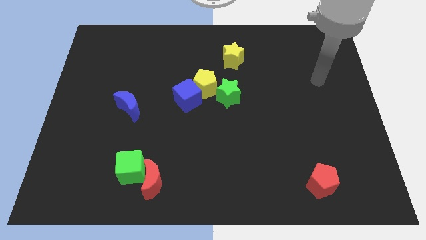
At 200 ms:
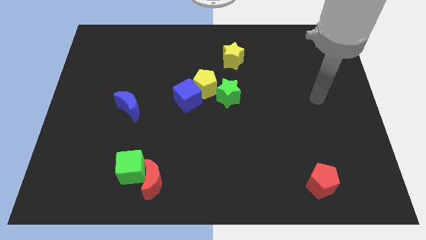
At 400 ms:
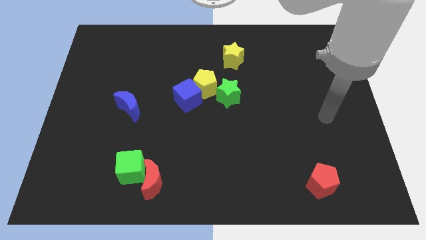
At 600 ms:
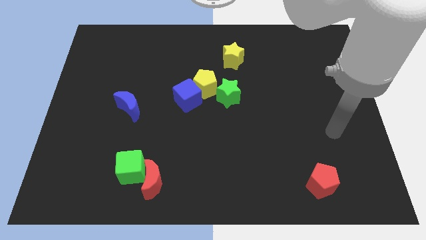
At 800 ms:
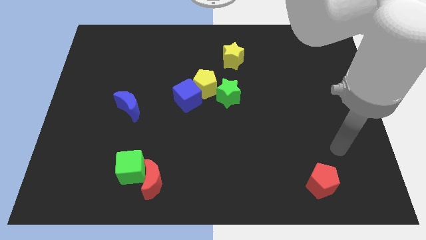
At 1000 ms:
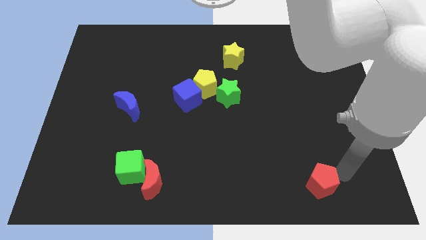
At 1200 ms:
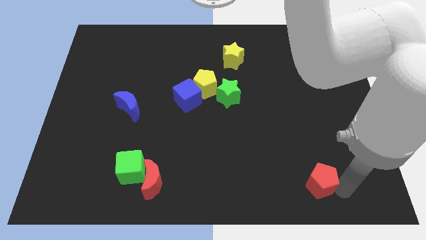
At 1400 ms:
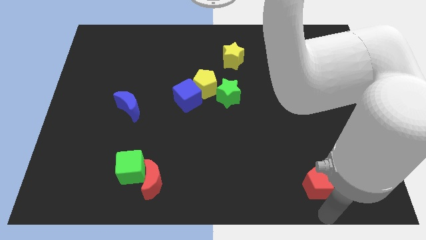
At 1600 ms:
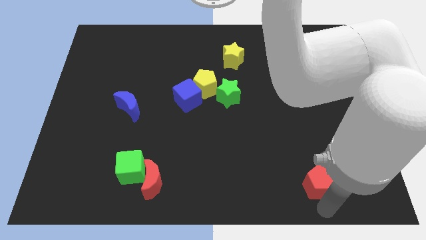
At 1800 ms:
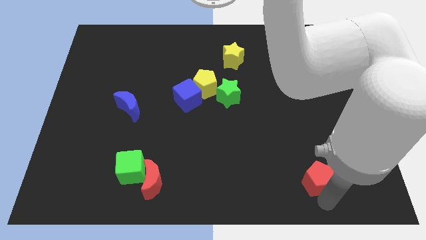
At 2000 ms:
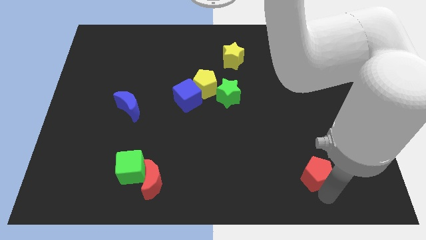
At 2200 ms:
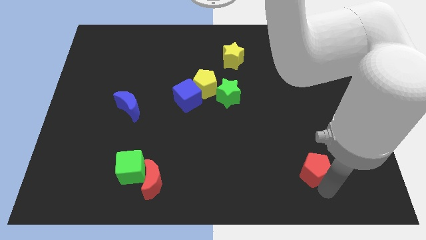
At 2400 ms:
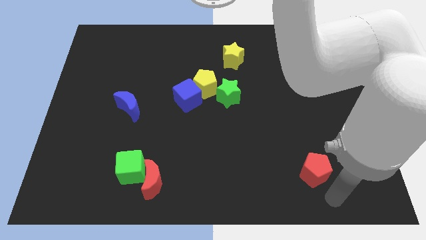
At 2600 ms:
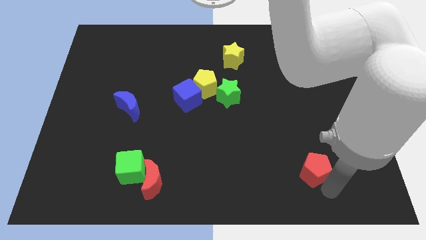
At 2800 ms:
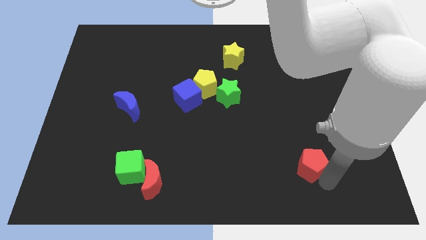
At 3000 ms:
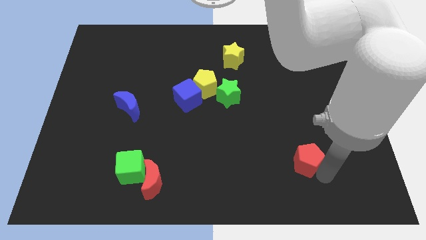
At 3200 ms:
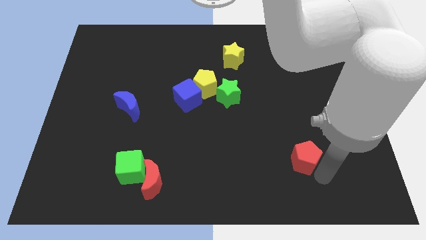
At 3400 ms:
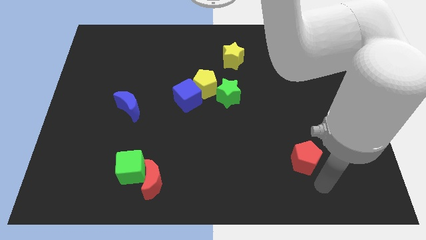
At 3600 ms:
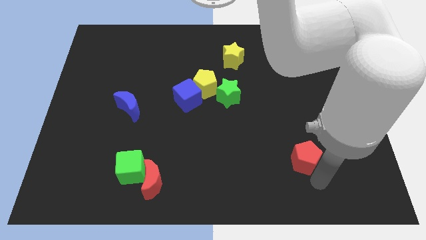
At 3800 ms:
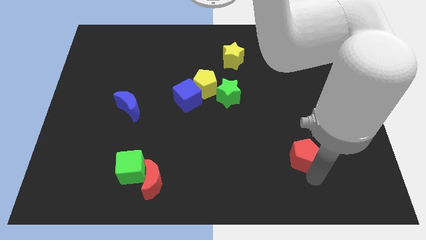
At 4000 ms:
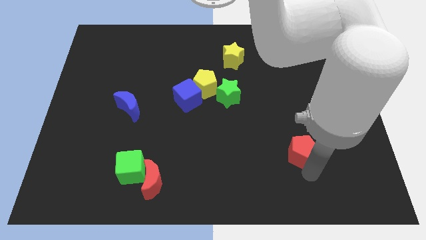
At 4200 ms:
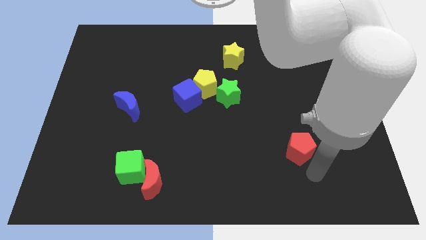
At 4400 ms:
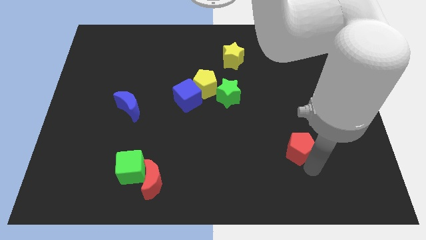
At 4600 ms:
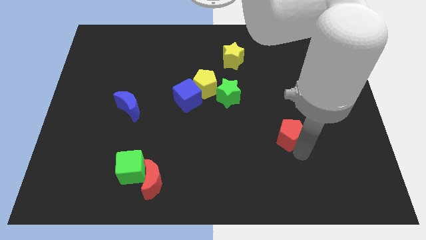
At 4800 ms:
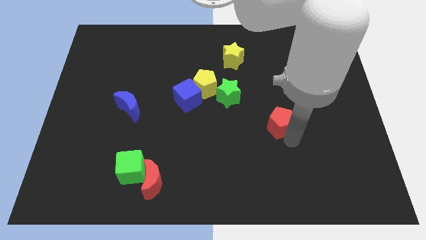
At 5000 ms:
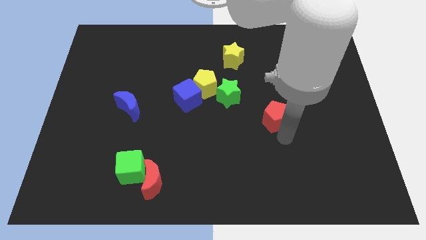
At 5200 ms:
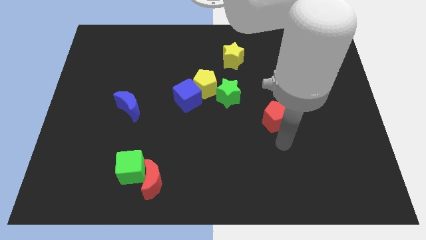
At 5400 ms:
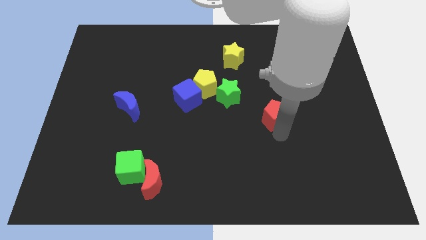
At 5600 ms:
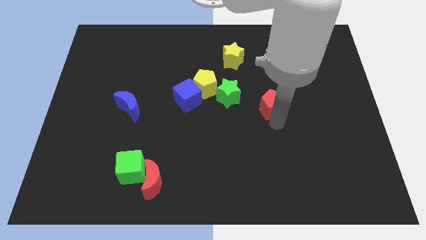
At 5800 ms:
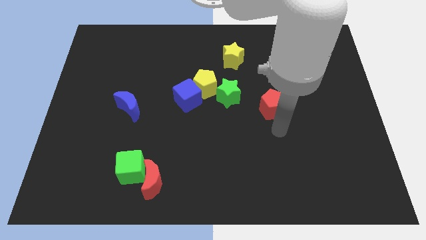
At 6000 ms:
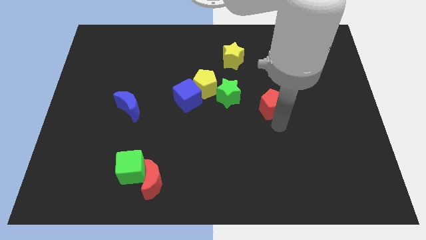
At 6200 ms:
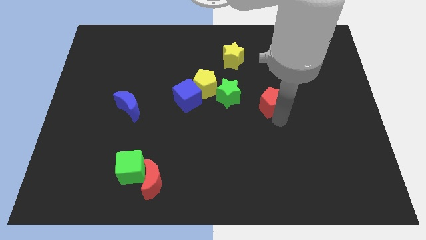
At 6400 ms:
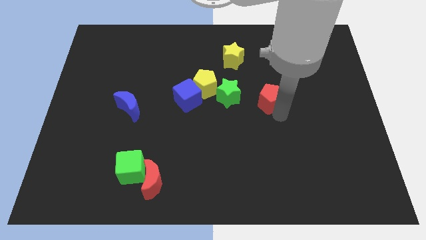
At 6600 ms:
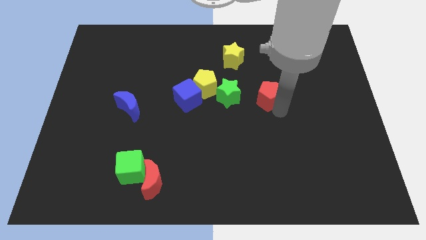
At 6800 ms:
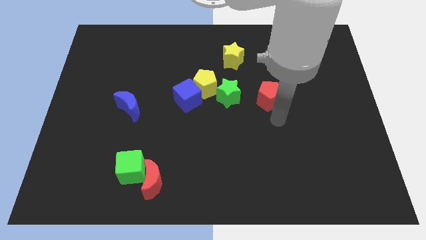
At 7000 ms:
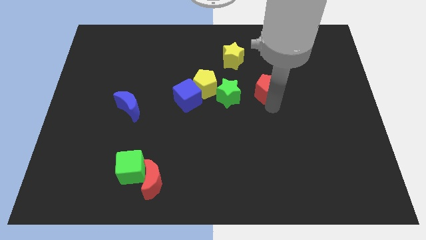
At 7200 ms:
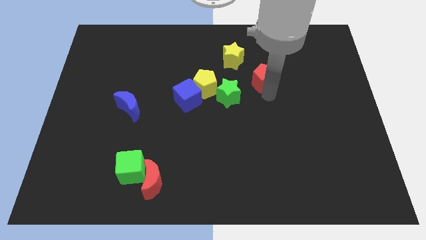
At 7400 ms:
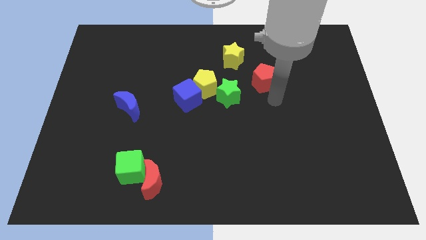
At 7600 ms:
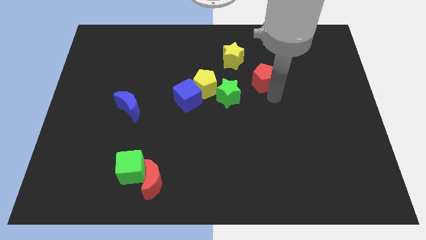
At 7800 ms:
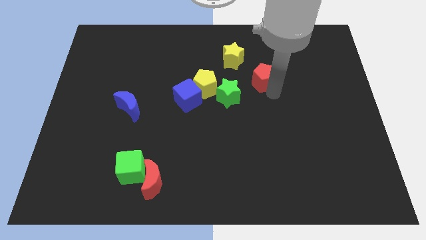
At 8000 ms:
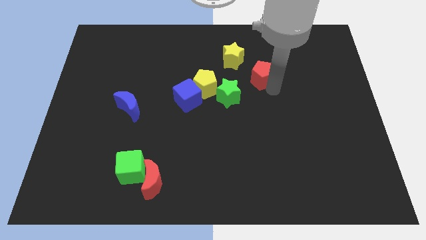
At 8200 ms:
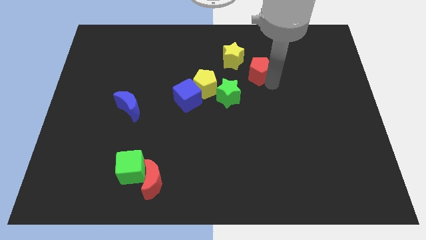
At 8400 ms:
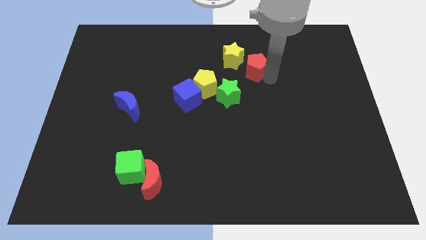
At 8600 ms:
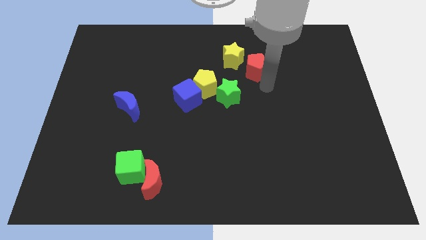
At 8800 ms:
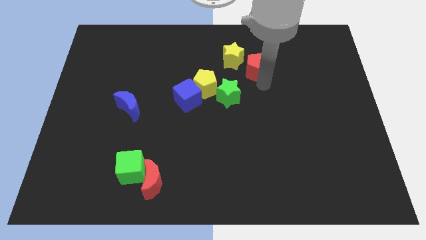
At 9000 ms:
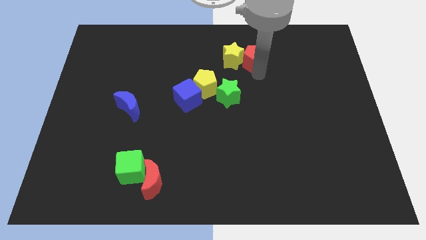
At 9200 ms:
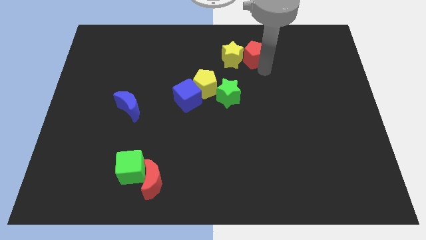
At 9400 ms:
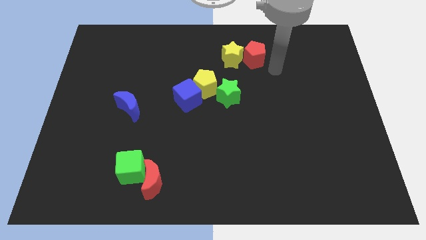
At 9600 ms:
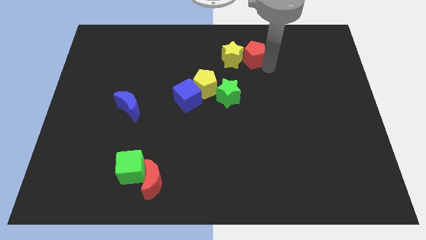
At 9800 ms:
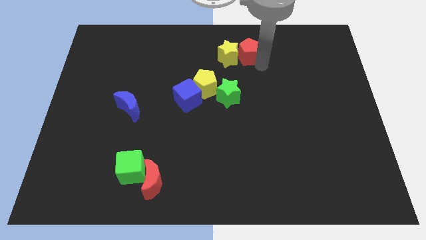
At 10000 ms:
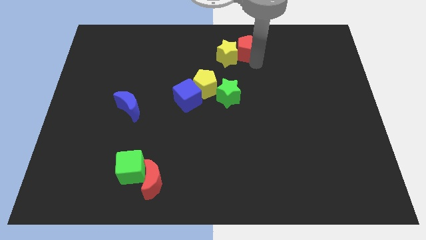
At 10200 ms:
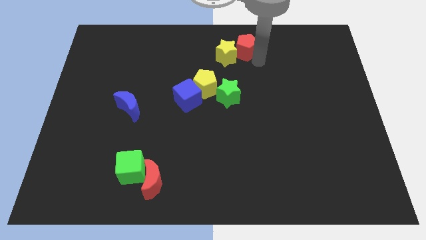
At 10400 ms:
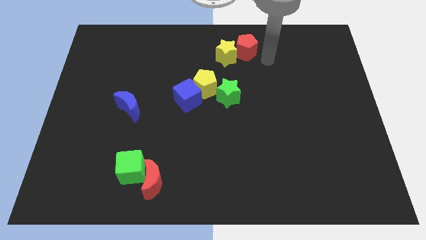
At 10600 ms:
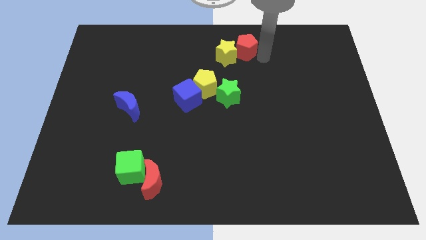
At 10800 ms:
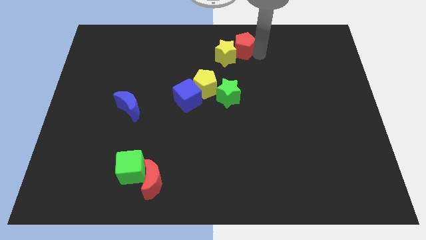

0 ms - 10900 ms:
put the red pentagon to the towards your base

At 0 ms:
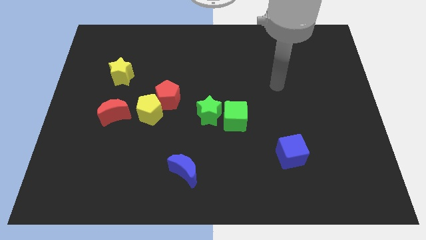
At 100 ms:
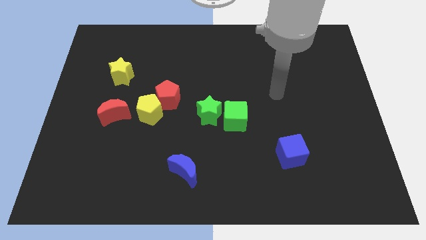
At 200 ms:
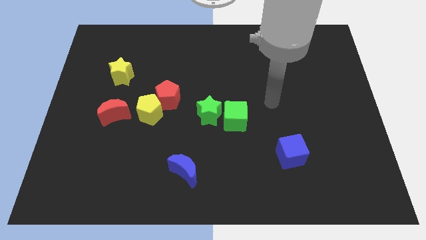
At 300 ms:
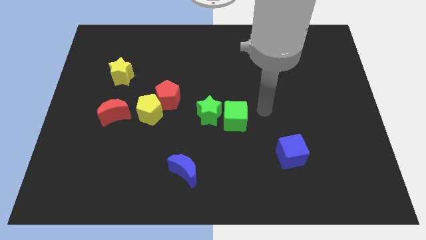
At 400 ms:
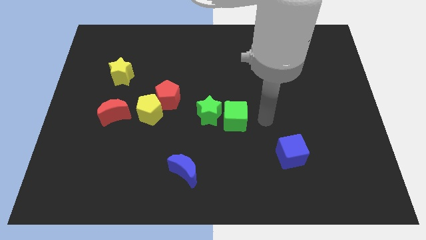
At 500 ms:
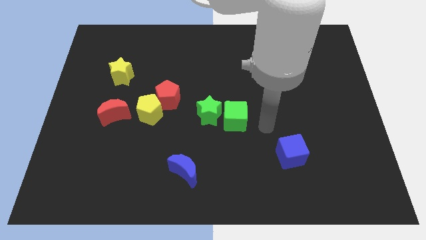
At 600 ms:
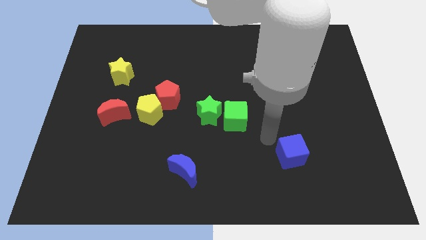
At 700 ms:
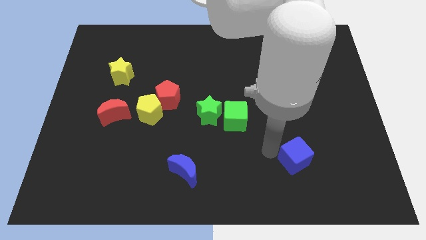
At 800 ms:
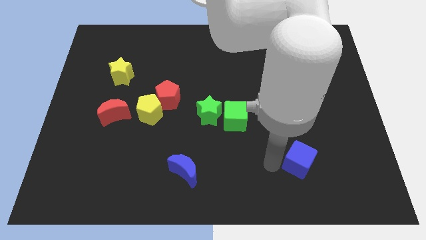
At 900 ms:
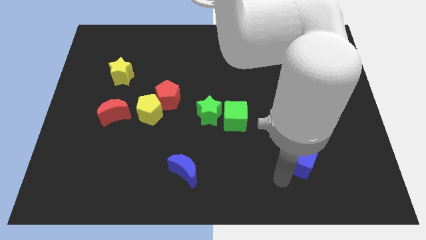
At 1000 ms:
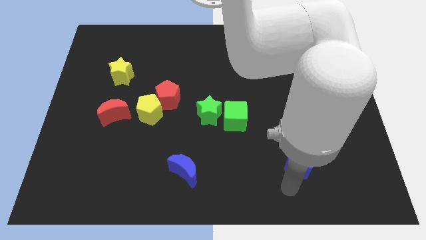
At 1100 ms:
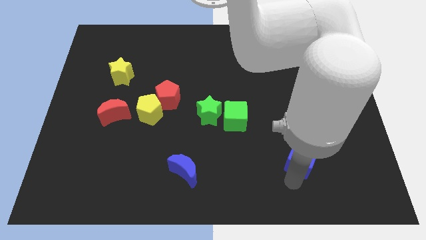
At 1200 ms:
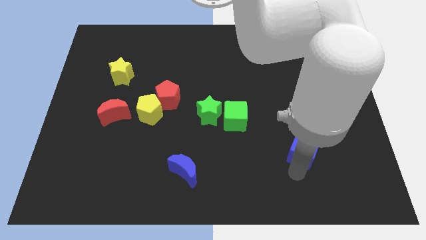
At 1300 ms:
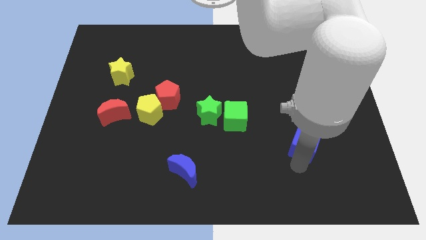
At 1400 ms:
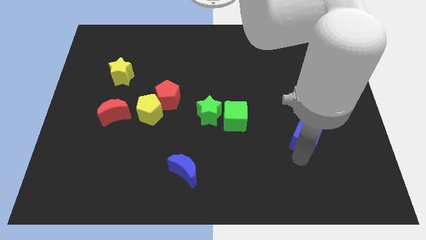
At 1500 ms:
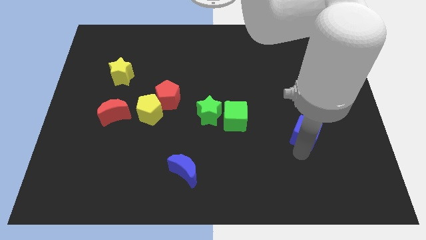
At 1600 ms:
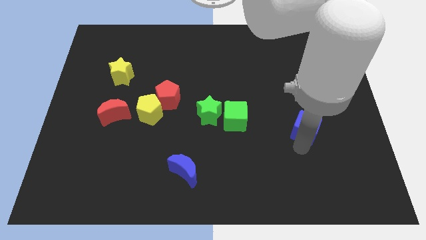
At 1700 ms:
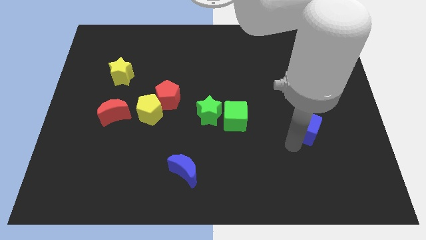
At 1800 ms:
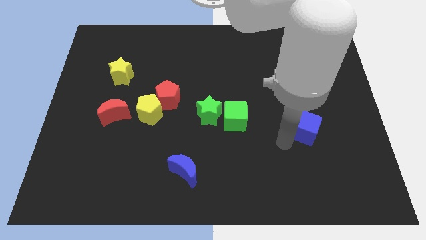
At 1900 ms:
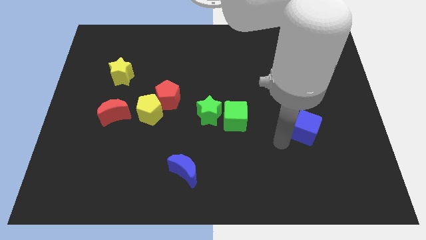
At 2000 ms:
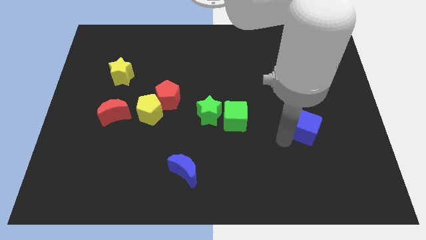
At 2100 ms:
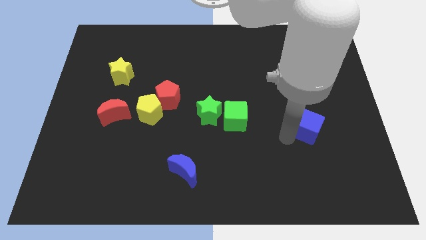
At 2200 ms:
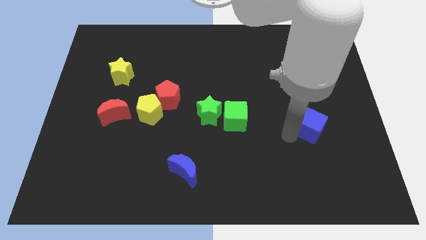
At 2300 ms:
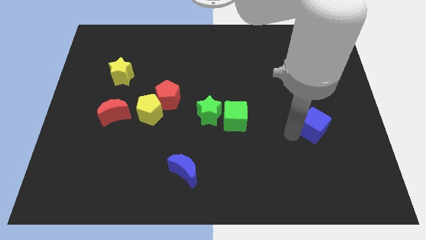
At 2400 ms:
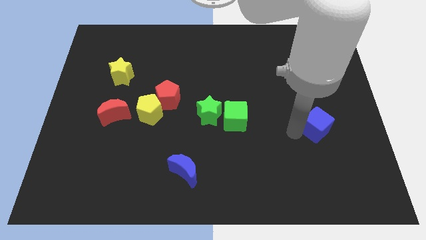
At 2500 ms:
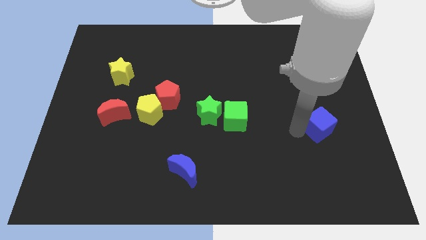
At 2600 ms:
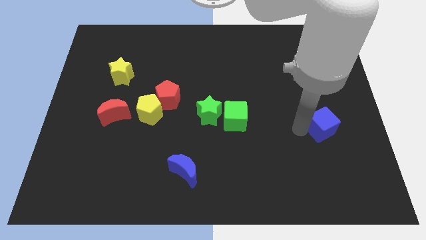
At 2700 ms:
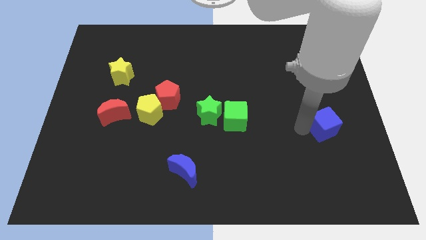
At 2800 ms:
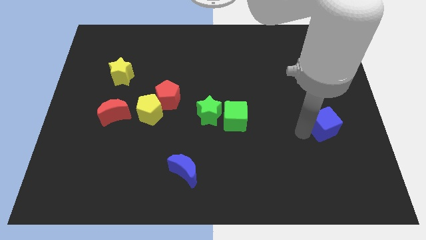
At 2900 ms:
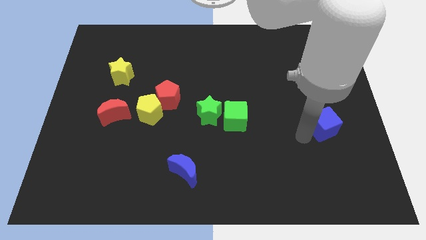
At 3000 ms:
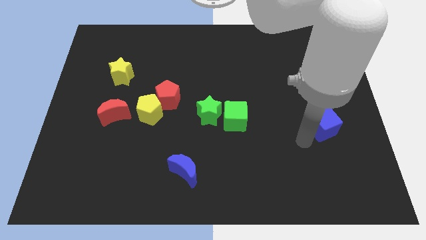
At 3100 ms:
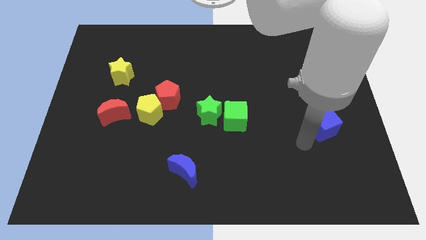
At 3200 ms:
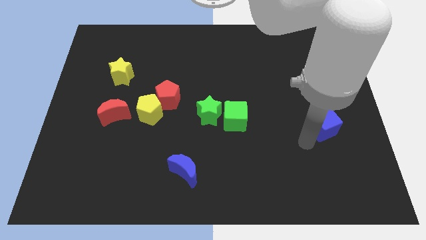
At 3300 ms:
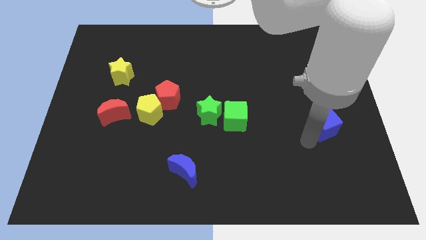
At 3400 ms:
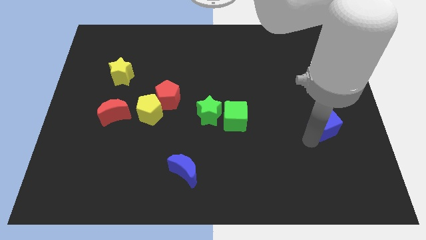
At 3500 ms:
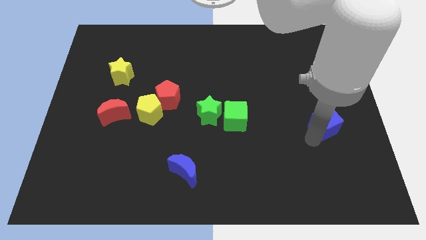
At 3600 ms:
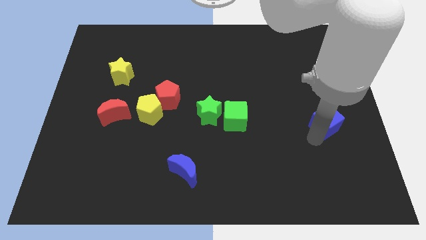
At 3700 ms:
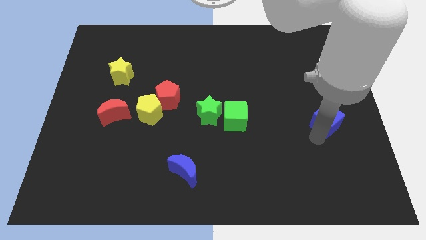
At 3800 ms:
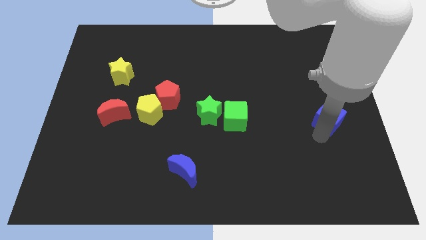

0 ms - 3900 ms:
put the blue cube to the right side of the board
